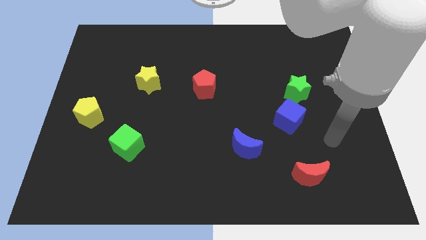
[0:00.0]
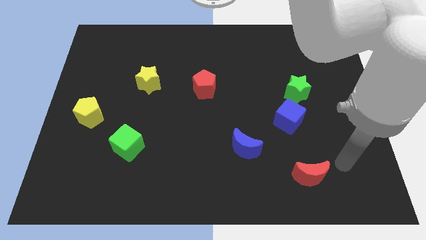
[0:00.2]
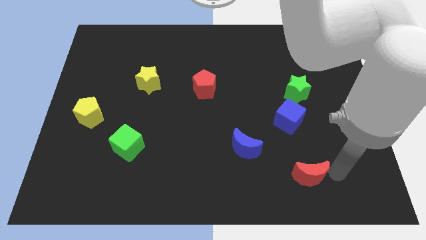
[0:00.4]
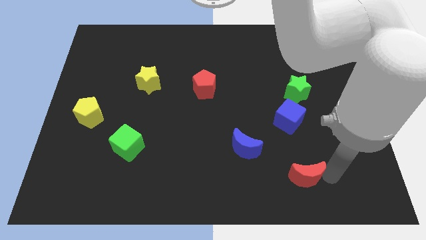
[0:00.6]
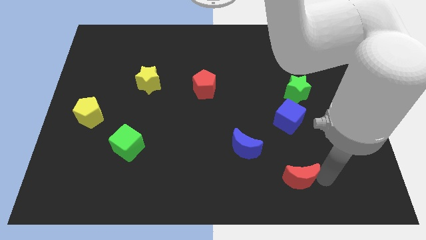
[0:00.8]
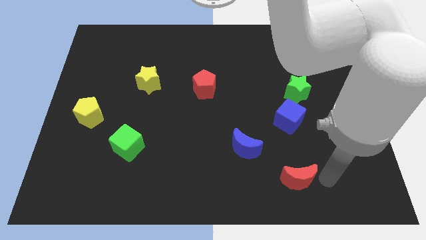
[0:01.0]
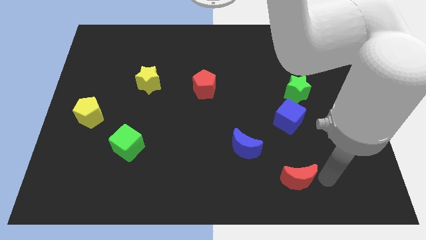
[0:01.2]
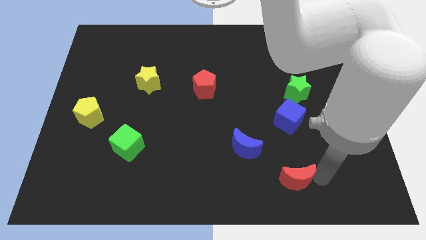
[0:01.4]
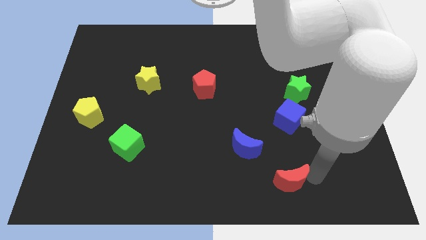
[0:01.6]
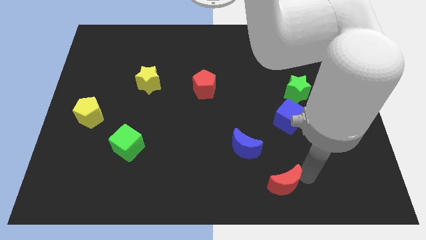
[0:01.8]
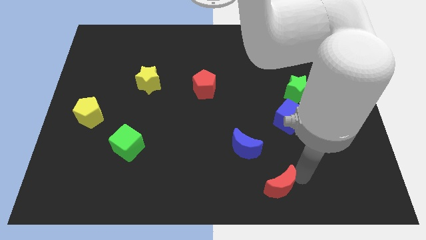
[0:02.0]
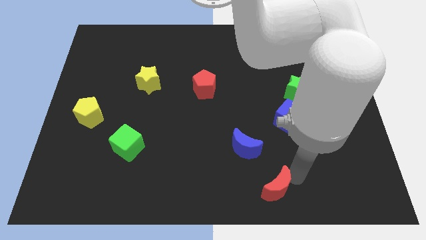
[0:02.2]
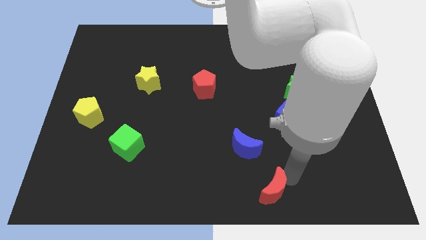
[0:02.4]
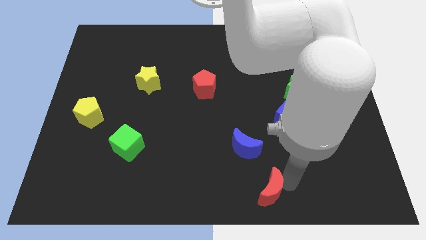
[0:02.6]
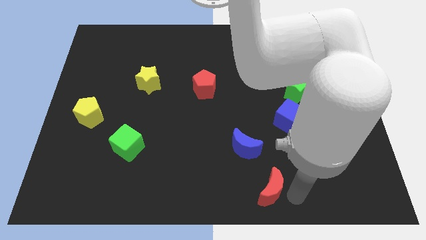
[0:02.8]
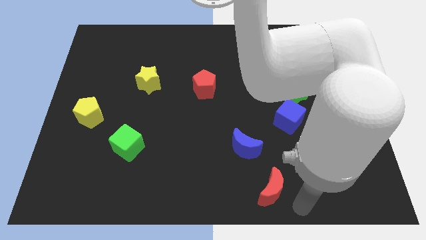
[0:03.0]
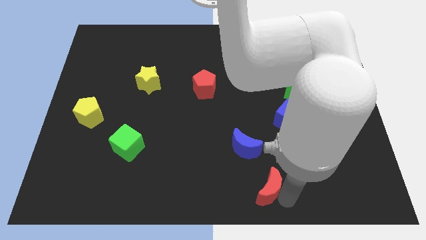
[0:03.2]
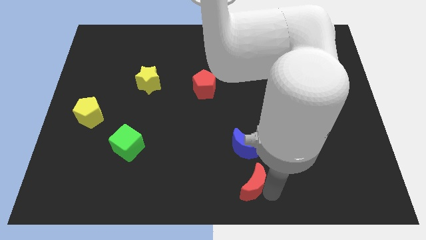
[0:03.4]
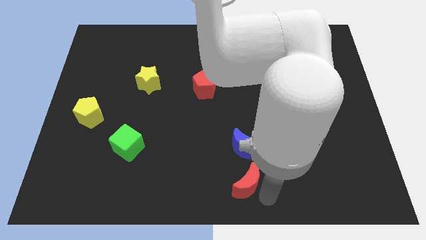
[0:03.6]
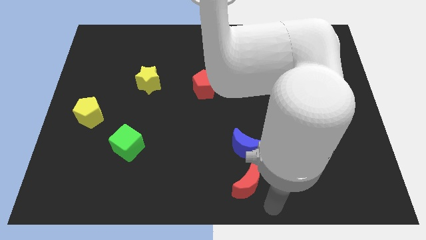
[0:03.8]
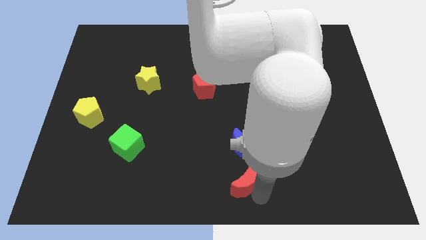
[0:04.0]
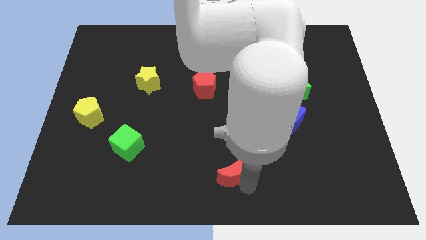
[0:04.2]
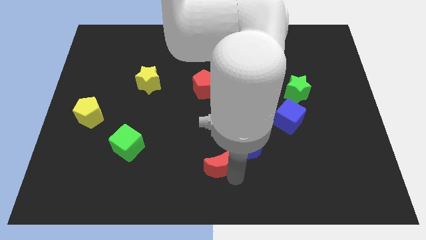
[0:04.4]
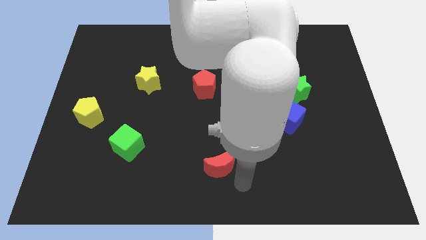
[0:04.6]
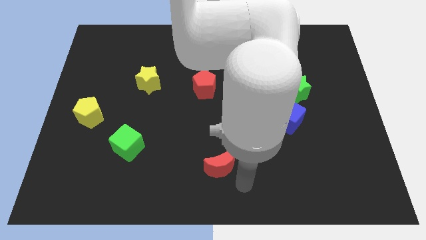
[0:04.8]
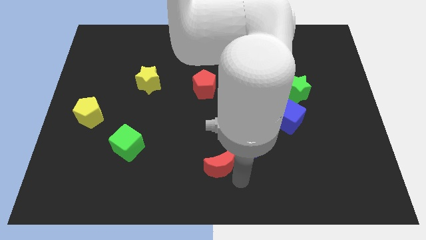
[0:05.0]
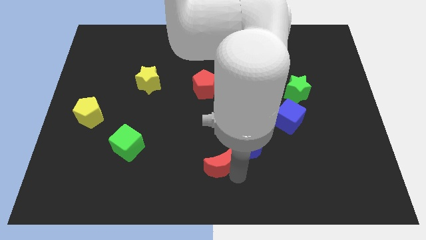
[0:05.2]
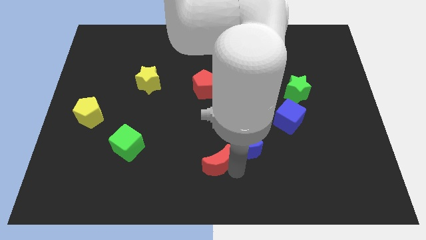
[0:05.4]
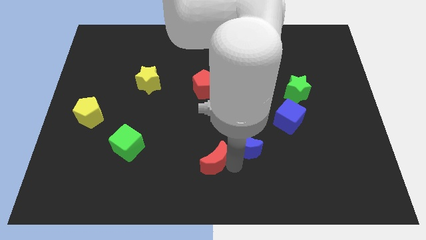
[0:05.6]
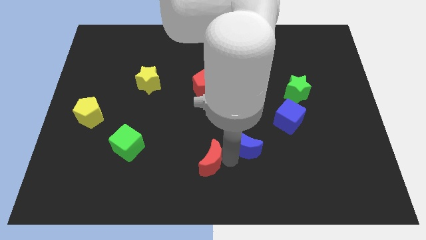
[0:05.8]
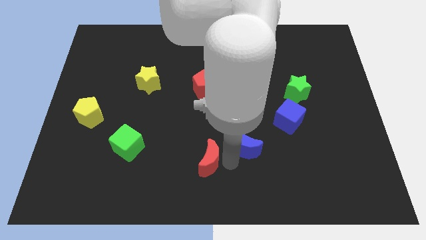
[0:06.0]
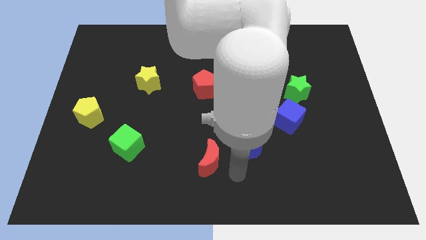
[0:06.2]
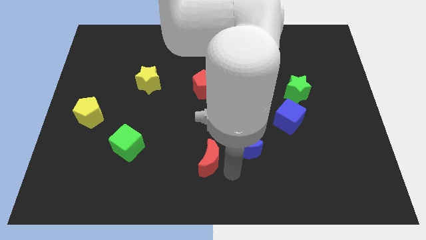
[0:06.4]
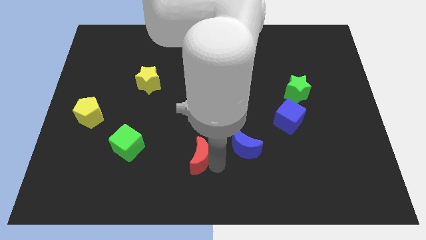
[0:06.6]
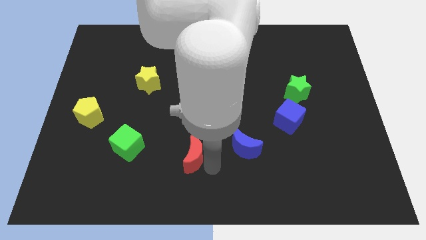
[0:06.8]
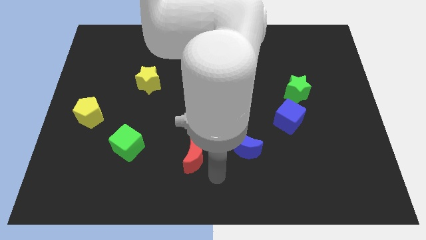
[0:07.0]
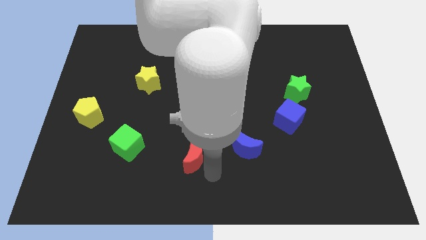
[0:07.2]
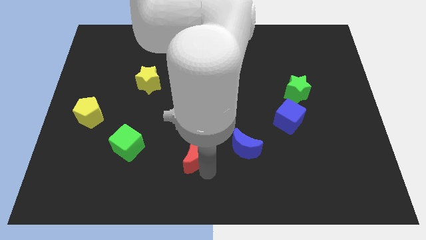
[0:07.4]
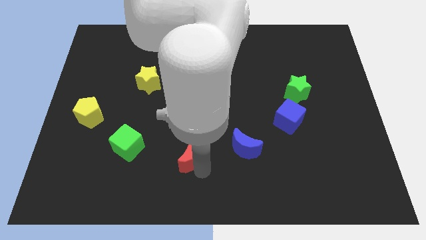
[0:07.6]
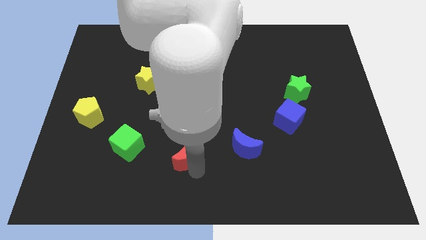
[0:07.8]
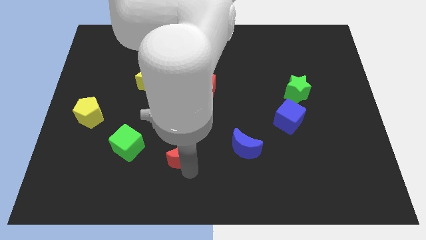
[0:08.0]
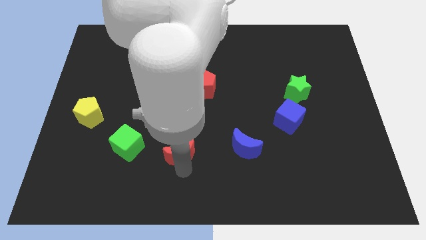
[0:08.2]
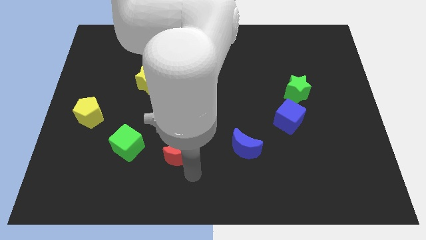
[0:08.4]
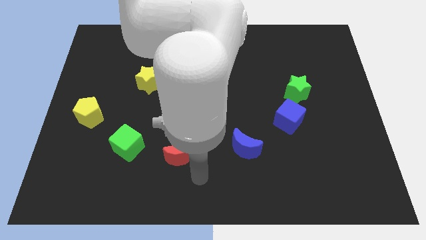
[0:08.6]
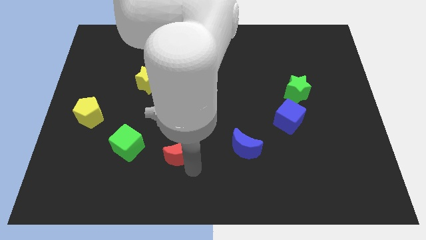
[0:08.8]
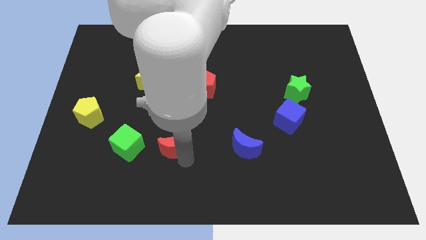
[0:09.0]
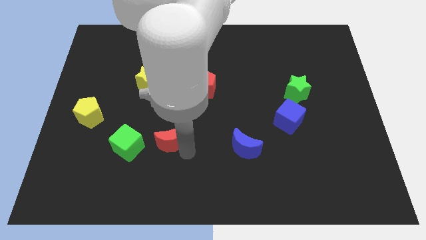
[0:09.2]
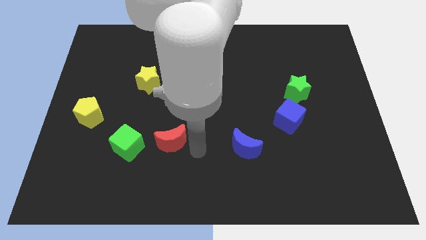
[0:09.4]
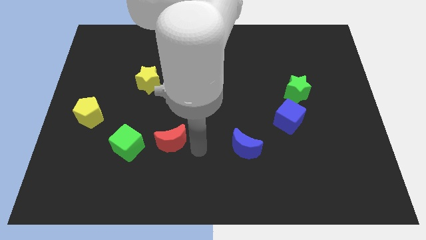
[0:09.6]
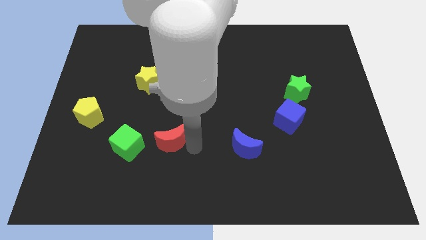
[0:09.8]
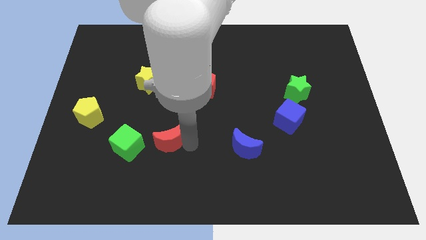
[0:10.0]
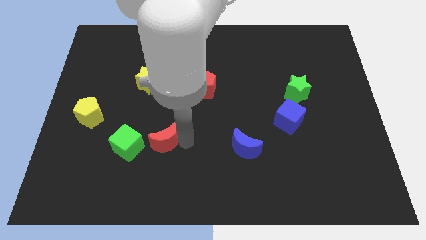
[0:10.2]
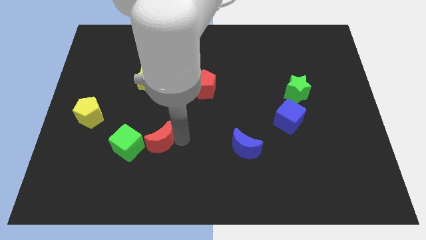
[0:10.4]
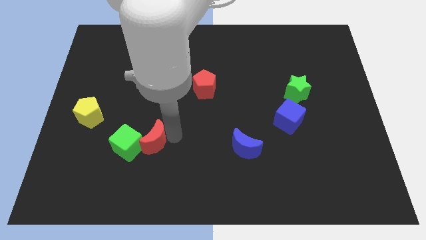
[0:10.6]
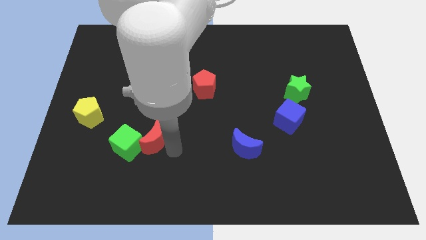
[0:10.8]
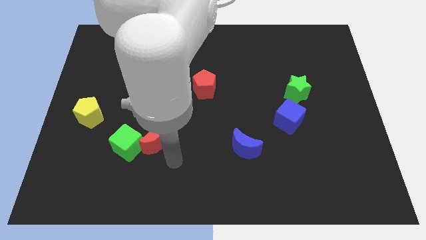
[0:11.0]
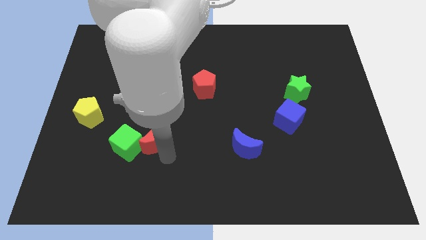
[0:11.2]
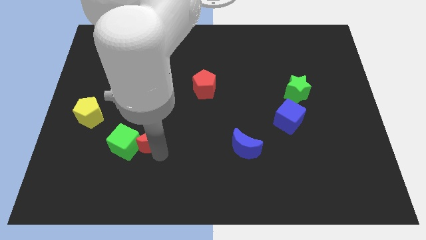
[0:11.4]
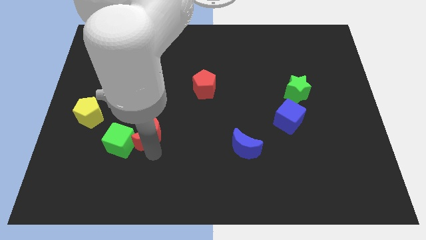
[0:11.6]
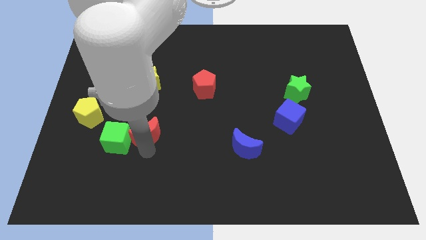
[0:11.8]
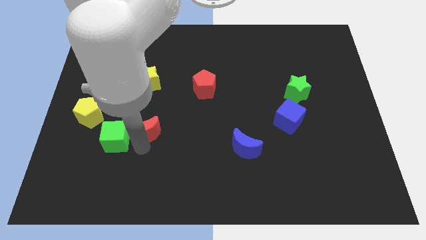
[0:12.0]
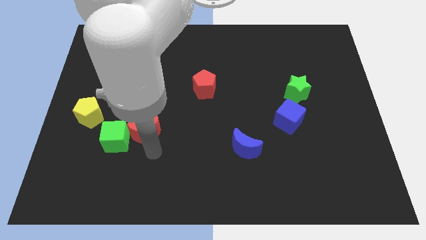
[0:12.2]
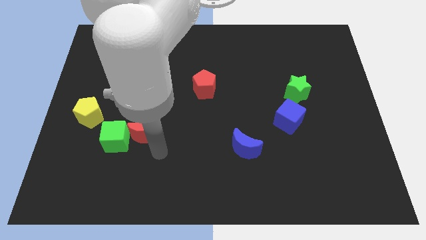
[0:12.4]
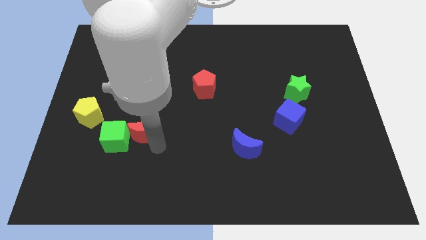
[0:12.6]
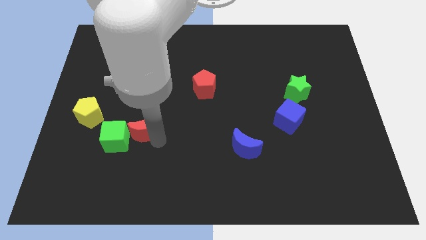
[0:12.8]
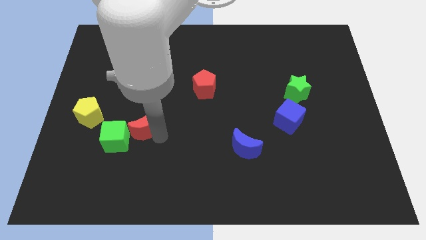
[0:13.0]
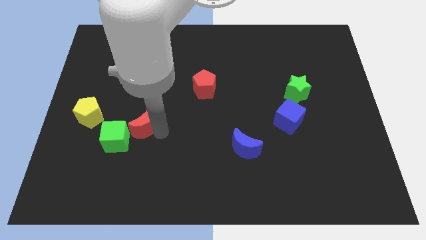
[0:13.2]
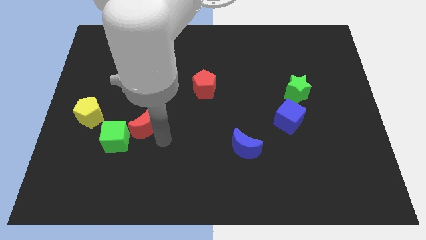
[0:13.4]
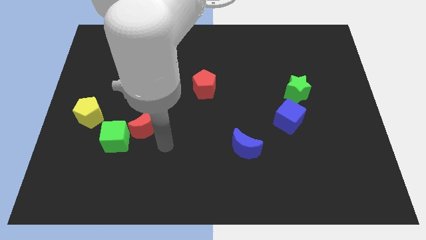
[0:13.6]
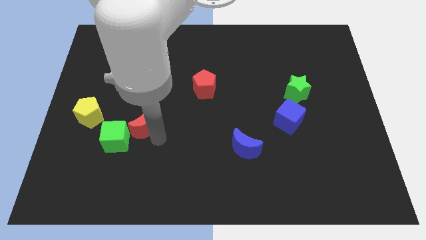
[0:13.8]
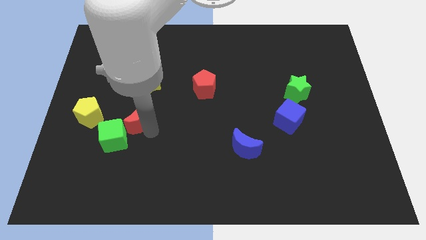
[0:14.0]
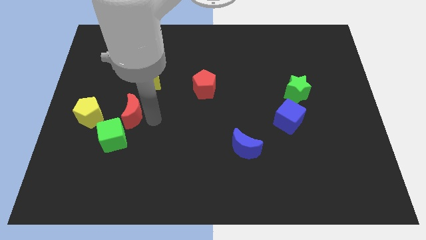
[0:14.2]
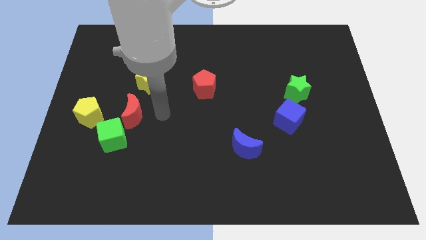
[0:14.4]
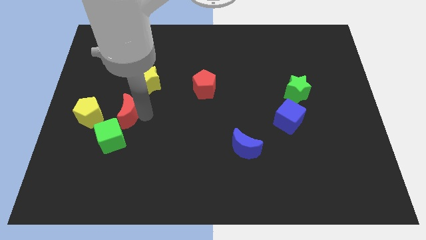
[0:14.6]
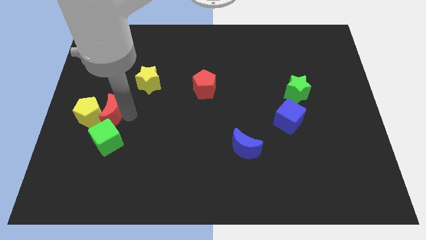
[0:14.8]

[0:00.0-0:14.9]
slide the red moon towards the yellow pentagon
